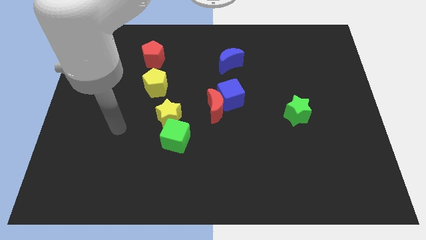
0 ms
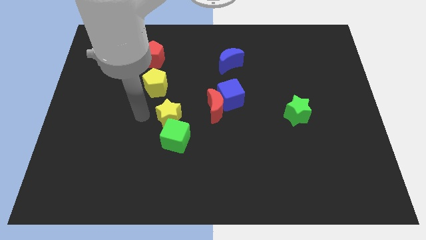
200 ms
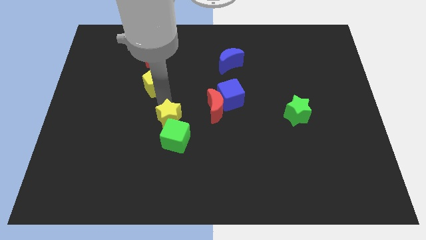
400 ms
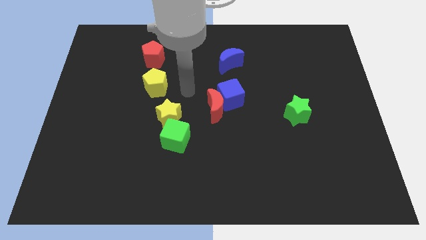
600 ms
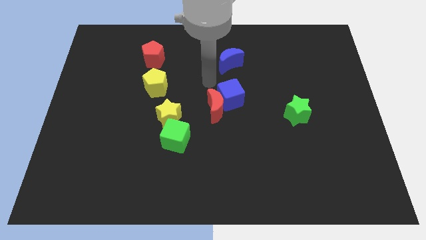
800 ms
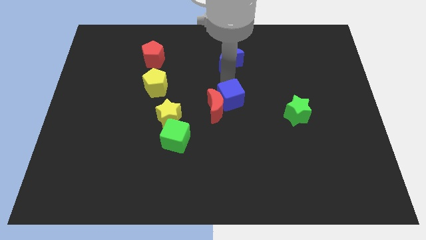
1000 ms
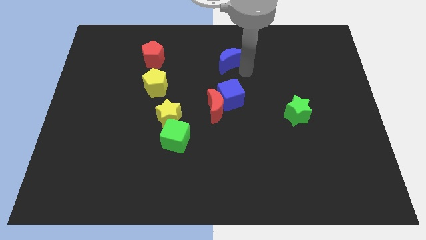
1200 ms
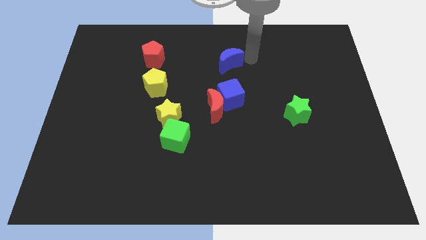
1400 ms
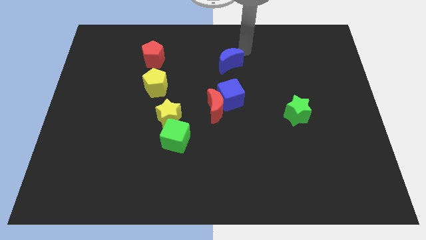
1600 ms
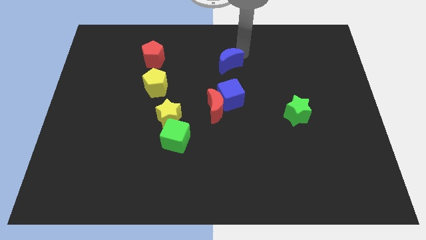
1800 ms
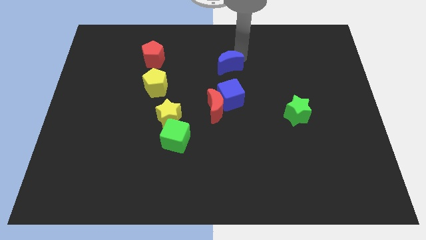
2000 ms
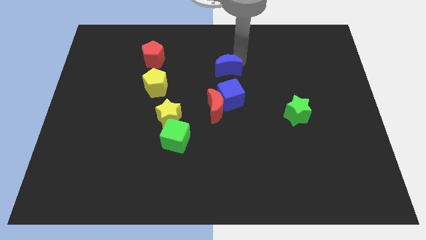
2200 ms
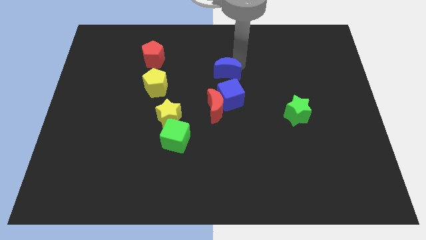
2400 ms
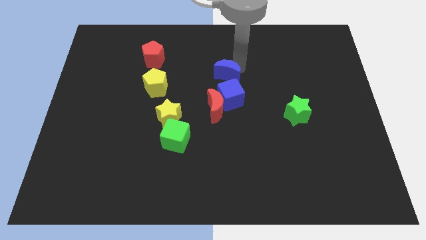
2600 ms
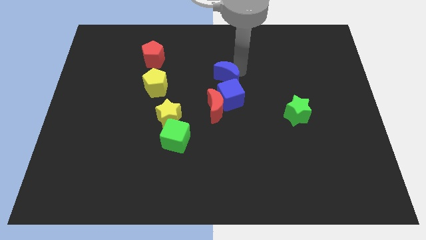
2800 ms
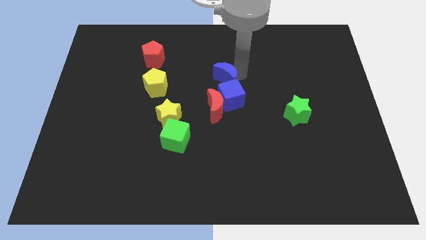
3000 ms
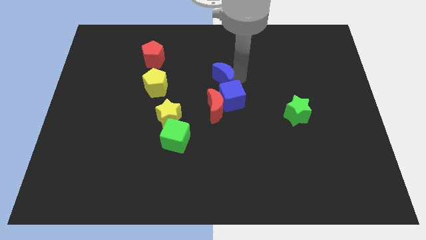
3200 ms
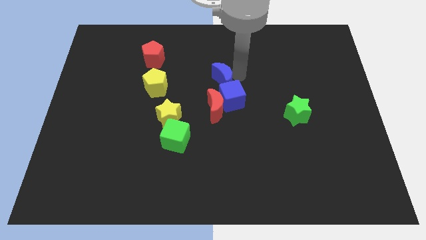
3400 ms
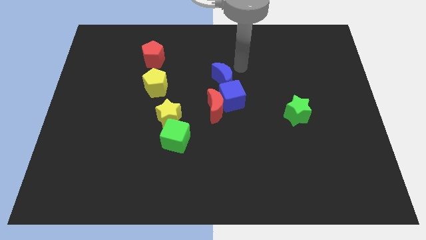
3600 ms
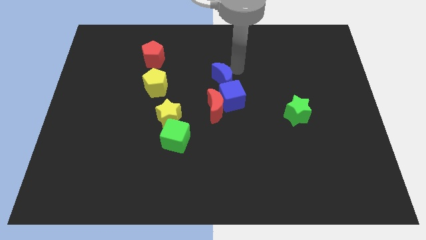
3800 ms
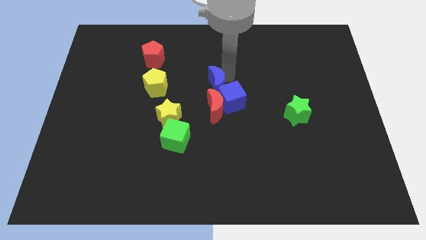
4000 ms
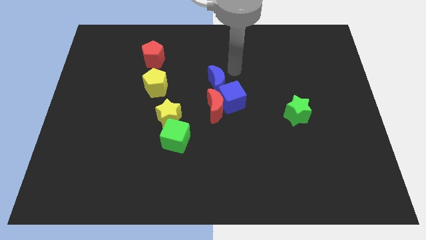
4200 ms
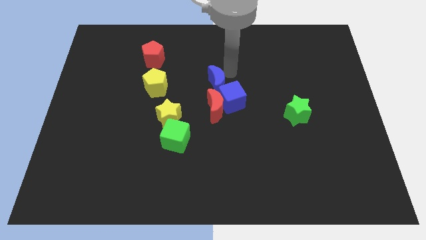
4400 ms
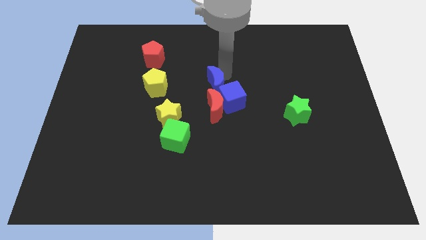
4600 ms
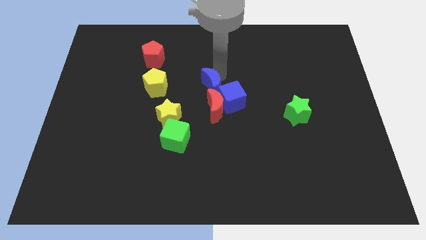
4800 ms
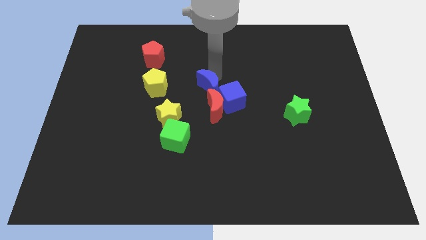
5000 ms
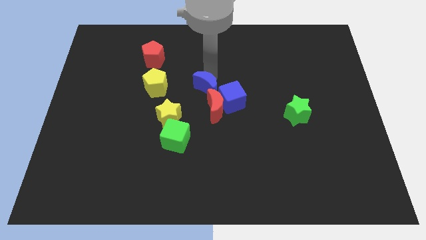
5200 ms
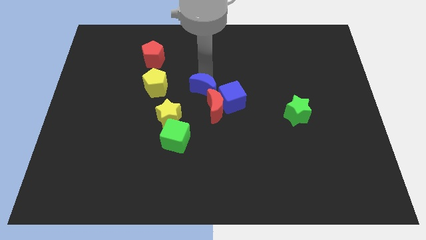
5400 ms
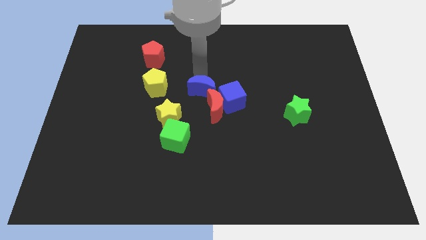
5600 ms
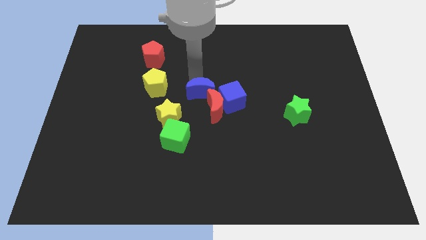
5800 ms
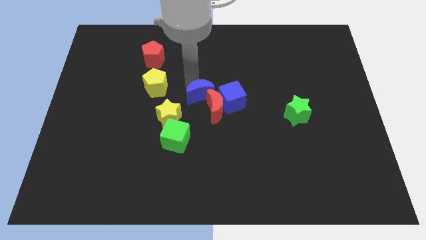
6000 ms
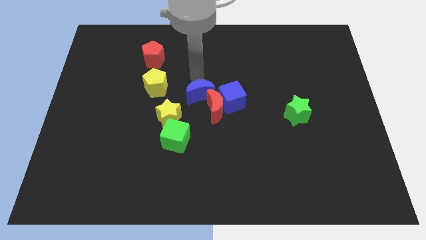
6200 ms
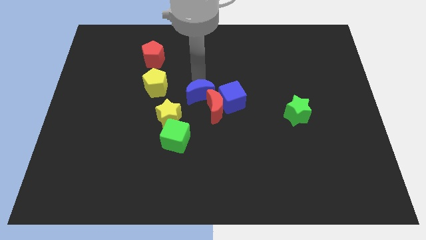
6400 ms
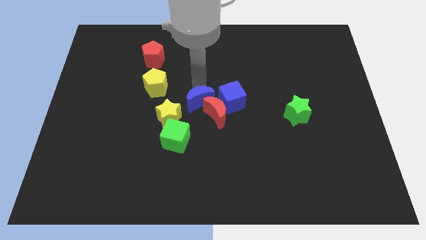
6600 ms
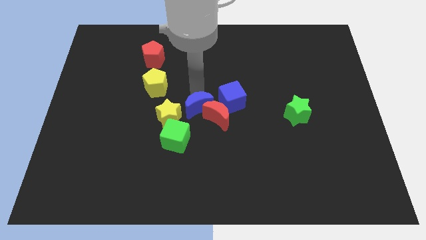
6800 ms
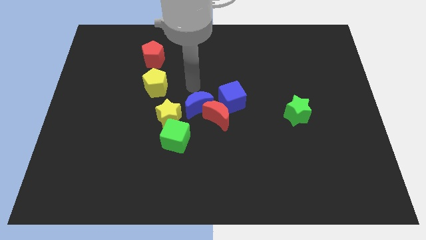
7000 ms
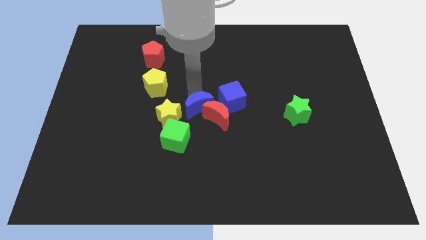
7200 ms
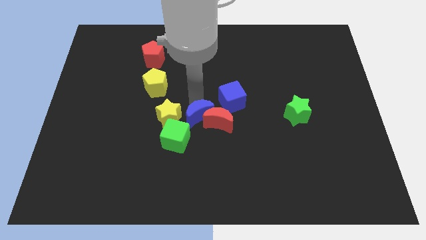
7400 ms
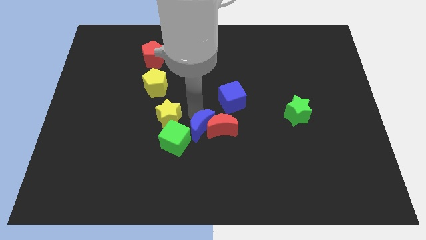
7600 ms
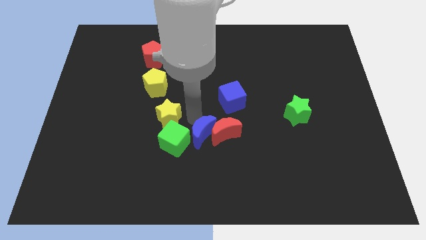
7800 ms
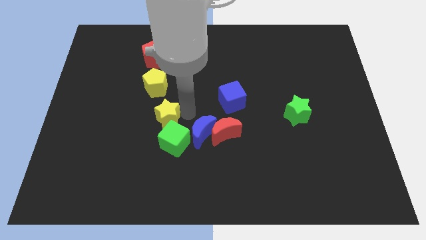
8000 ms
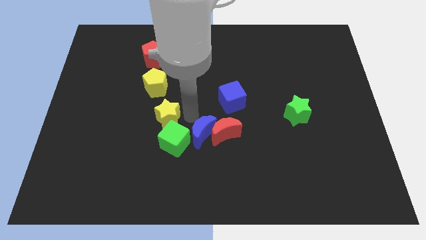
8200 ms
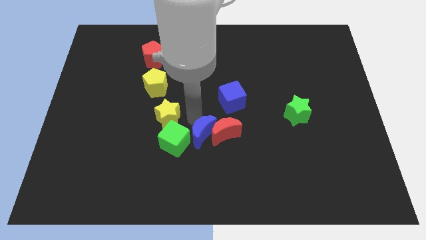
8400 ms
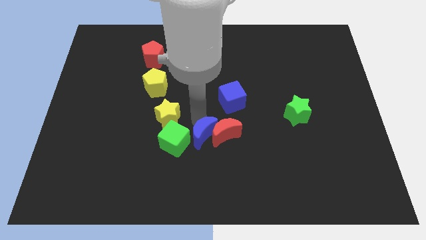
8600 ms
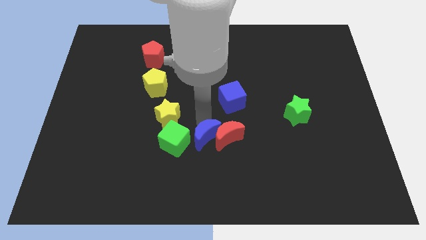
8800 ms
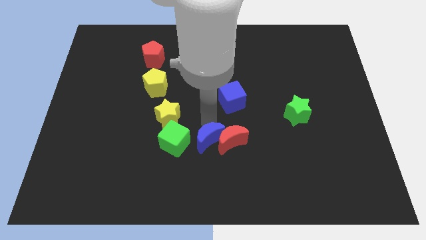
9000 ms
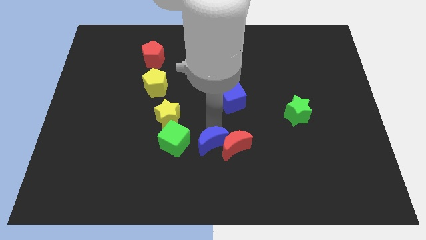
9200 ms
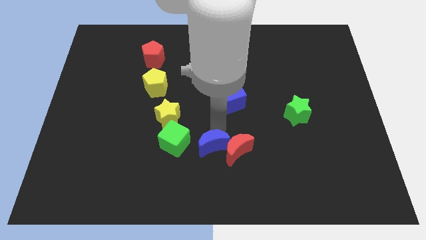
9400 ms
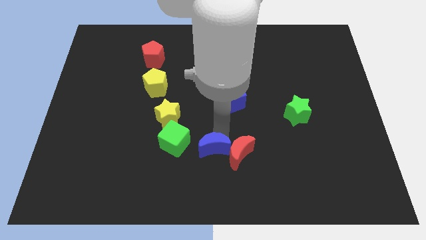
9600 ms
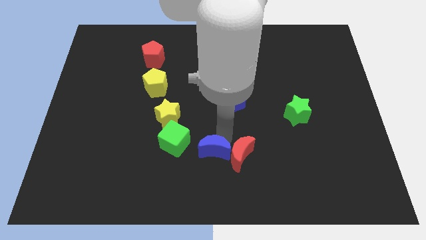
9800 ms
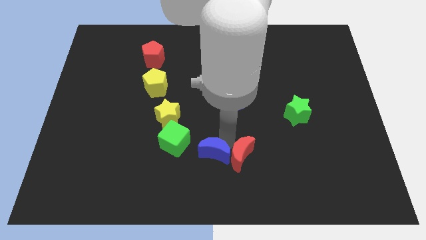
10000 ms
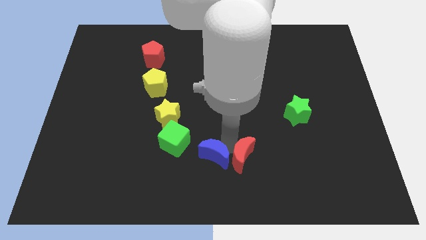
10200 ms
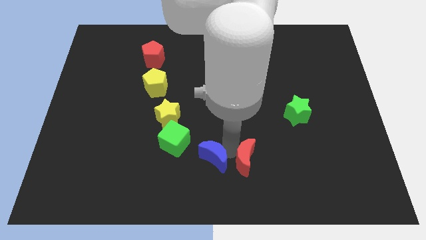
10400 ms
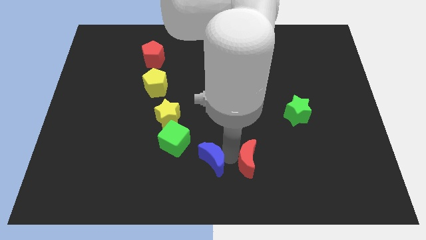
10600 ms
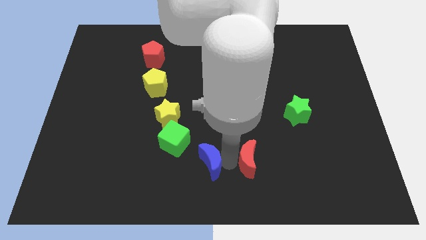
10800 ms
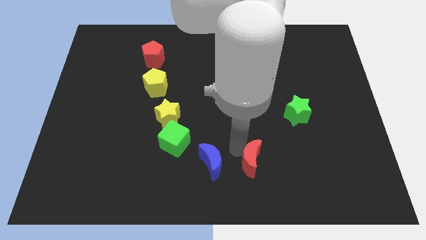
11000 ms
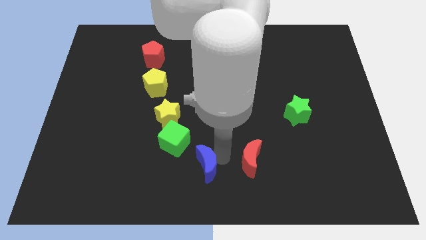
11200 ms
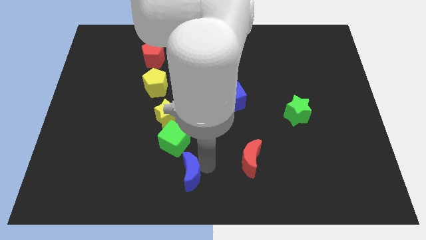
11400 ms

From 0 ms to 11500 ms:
put the blue moon below the green cube

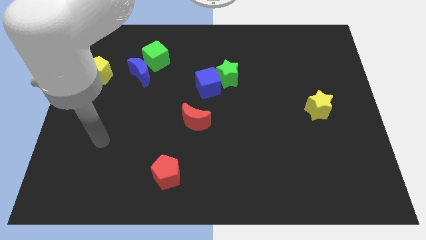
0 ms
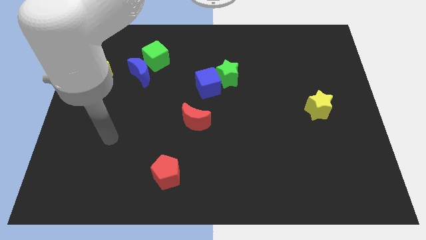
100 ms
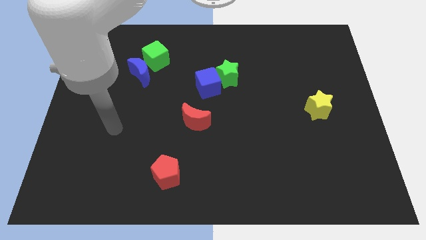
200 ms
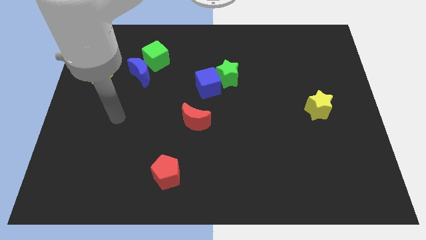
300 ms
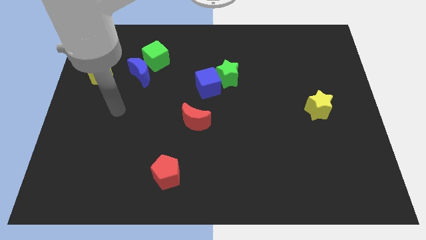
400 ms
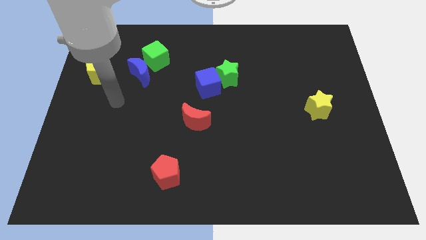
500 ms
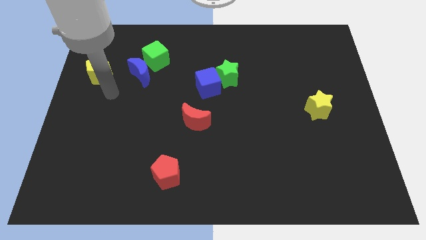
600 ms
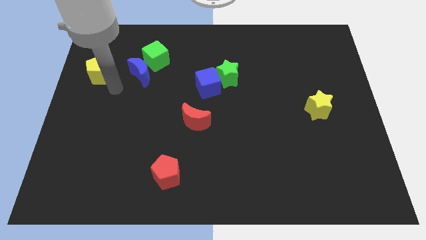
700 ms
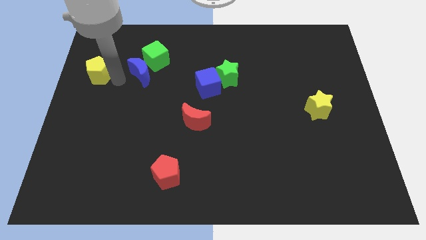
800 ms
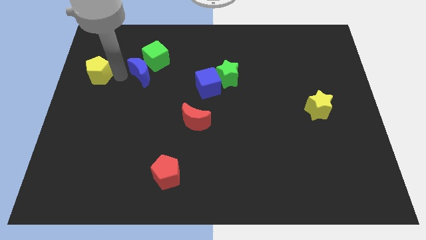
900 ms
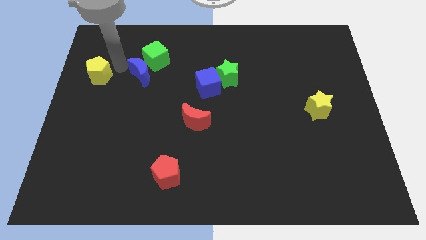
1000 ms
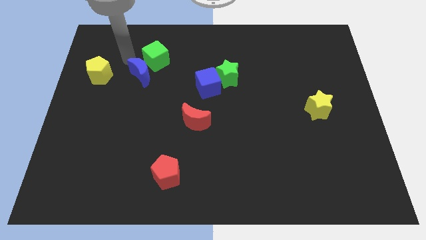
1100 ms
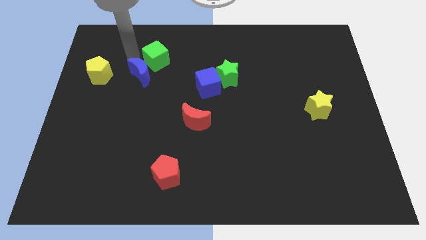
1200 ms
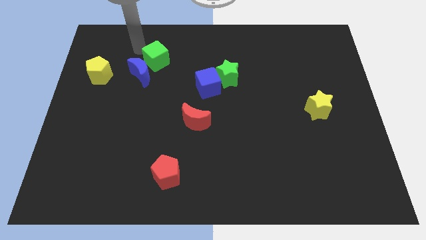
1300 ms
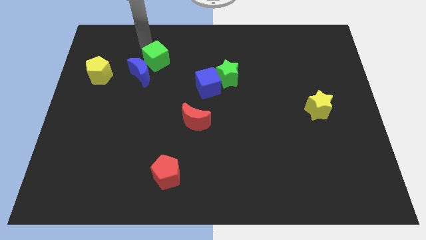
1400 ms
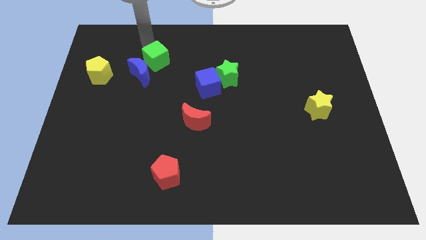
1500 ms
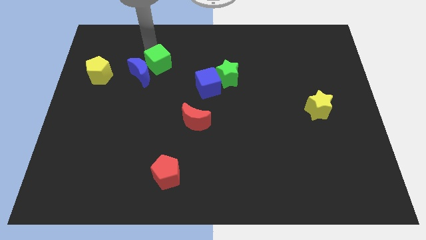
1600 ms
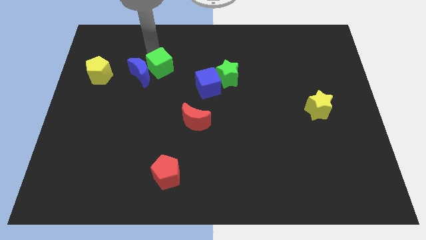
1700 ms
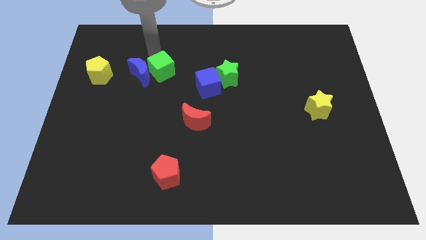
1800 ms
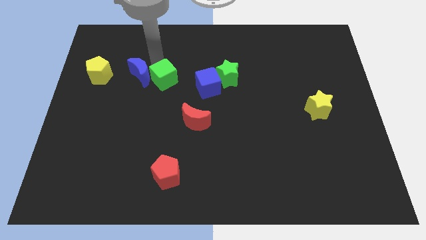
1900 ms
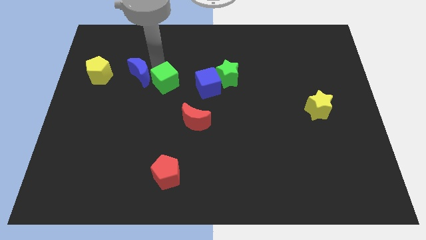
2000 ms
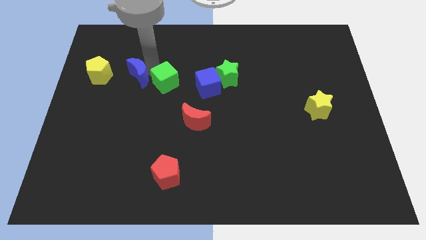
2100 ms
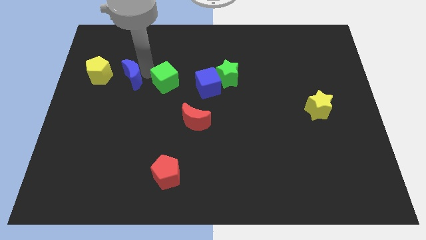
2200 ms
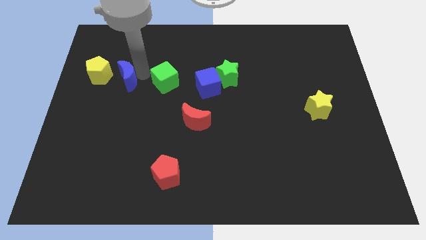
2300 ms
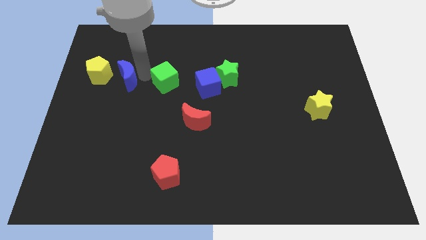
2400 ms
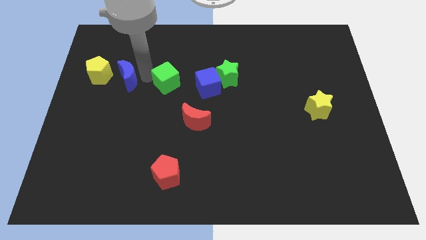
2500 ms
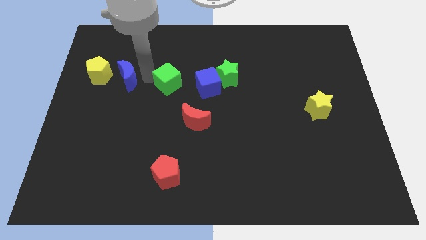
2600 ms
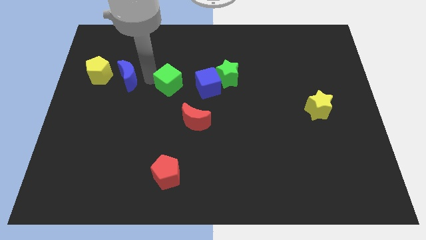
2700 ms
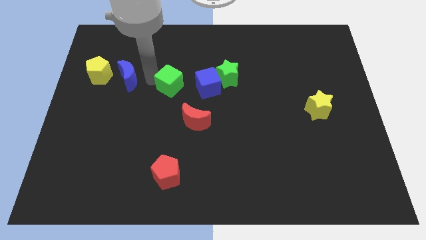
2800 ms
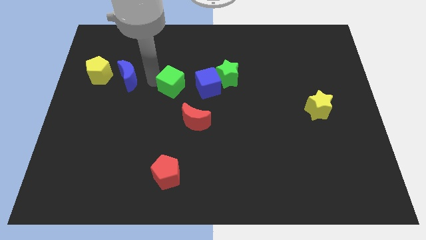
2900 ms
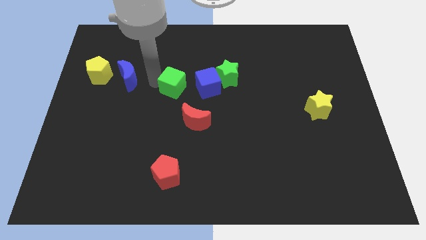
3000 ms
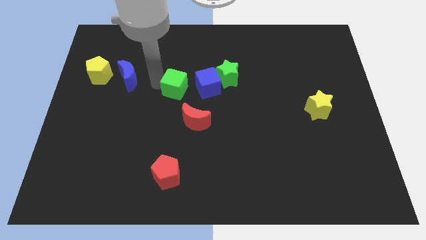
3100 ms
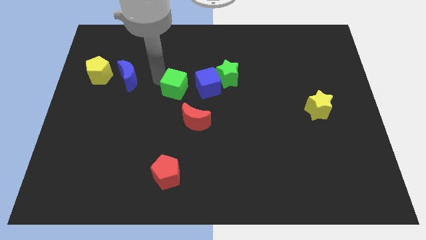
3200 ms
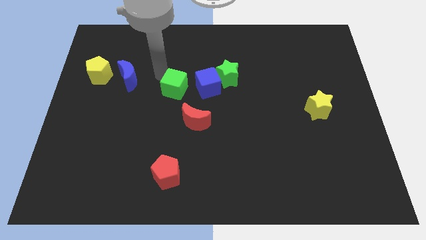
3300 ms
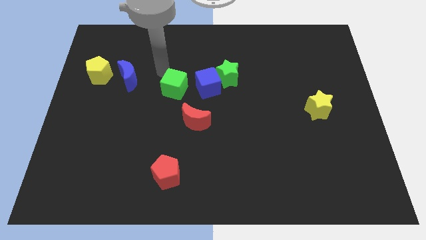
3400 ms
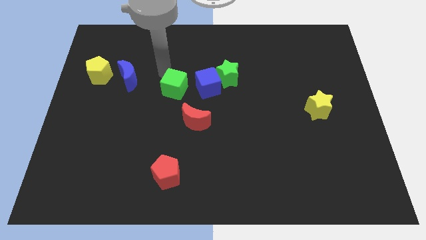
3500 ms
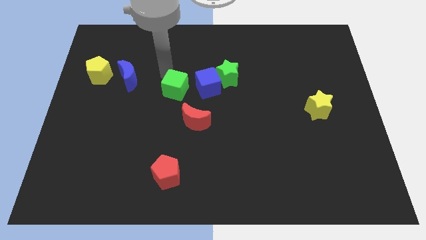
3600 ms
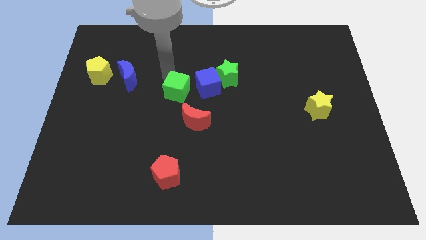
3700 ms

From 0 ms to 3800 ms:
slide the green cube diagonally down and to the left of the blue cube
